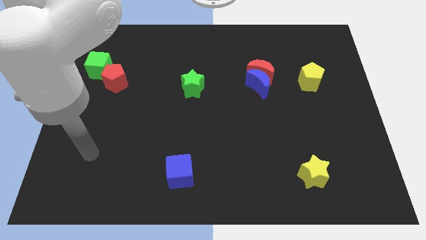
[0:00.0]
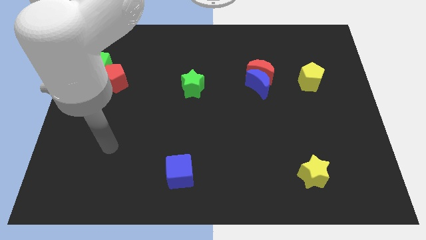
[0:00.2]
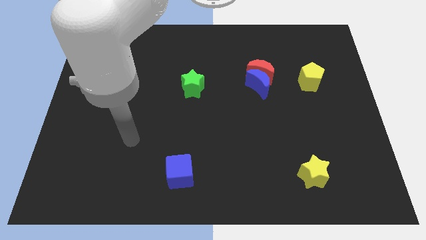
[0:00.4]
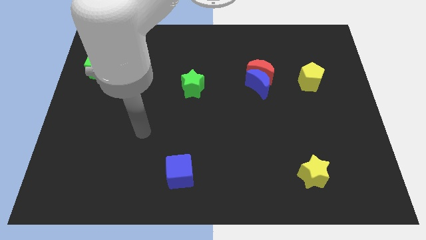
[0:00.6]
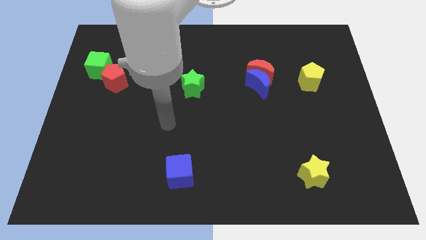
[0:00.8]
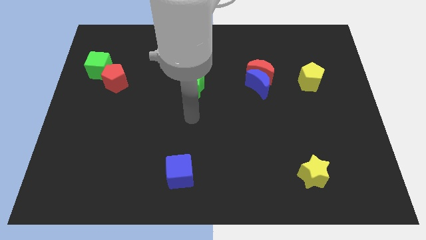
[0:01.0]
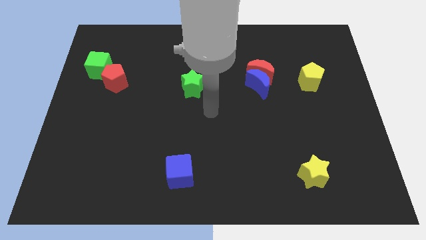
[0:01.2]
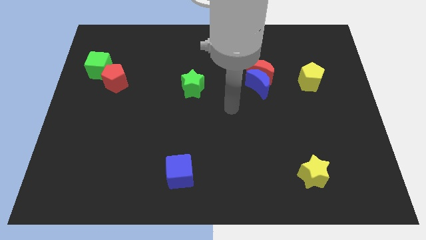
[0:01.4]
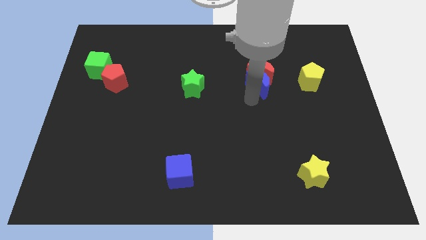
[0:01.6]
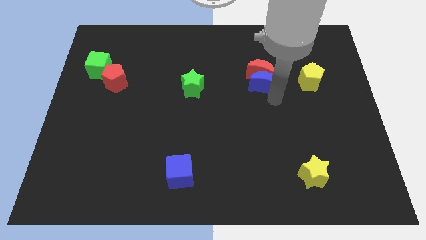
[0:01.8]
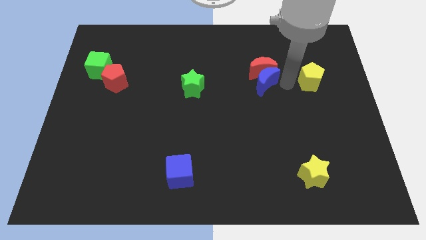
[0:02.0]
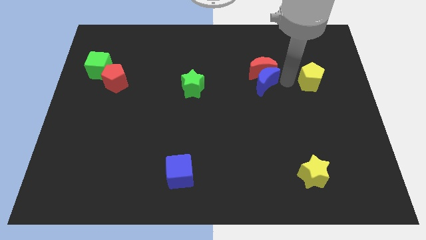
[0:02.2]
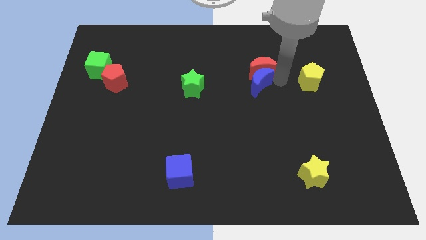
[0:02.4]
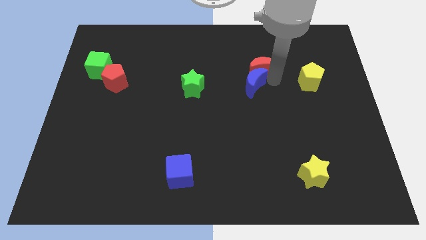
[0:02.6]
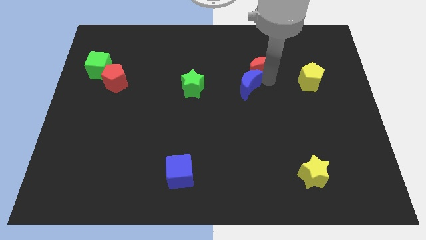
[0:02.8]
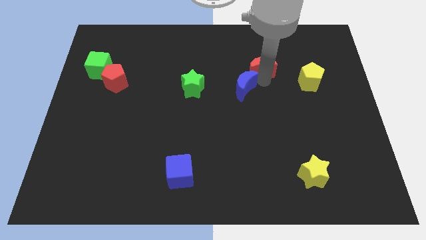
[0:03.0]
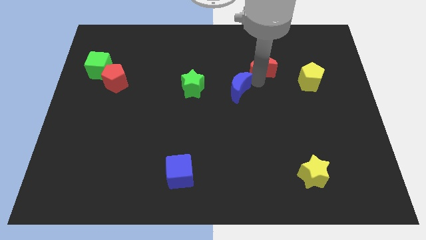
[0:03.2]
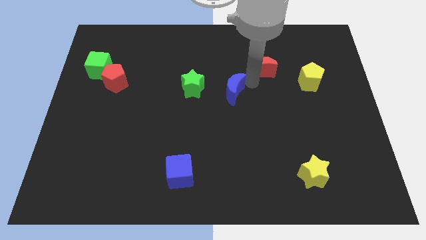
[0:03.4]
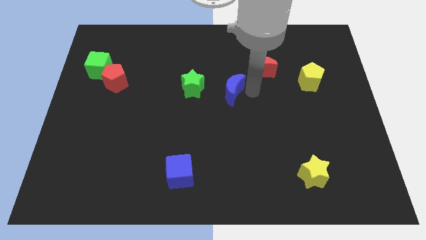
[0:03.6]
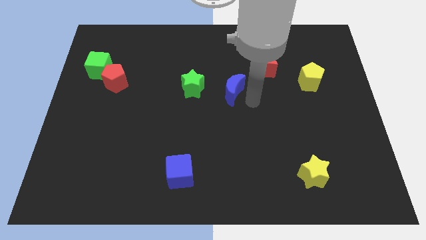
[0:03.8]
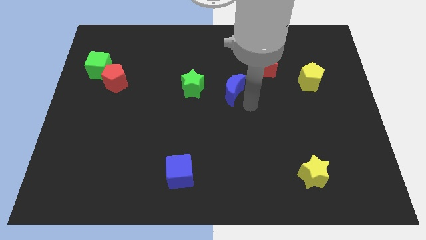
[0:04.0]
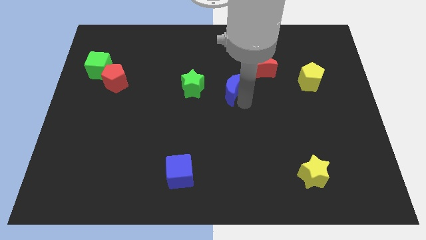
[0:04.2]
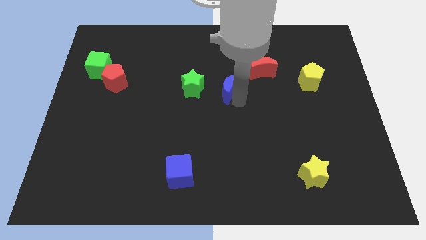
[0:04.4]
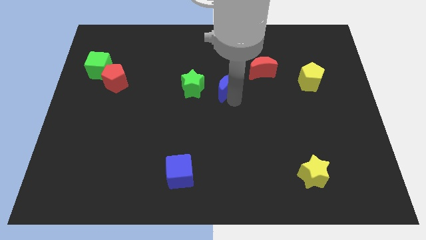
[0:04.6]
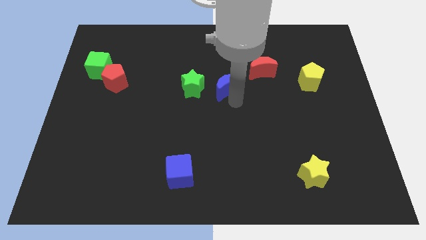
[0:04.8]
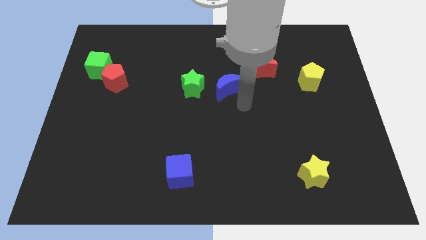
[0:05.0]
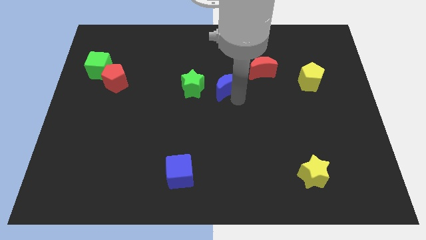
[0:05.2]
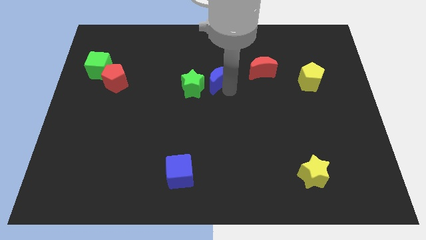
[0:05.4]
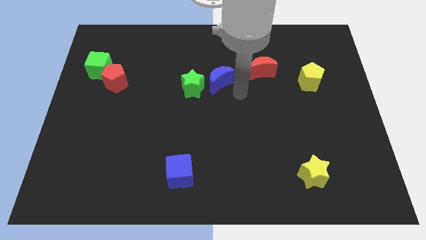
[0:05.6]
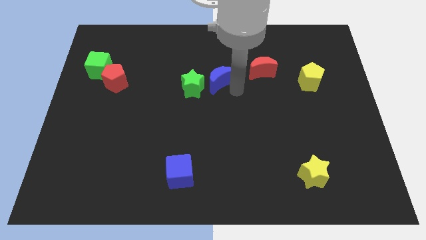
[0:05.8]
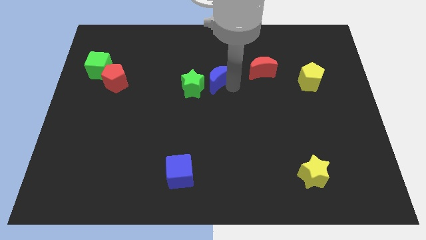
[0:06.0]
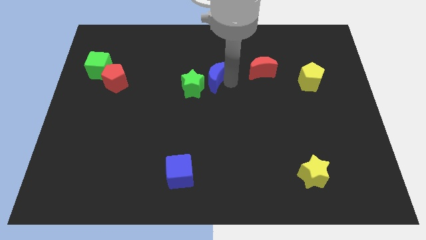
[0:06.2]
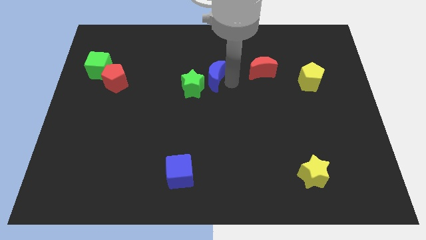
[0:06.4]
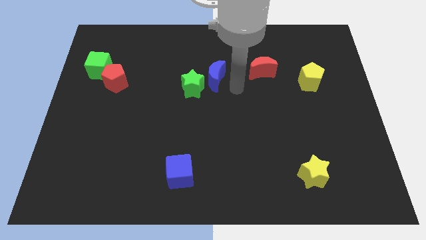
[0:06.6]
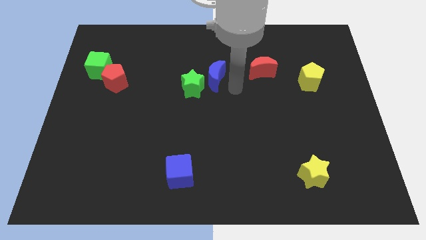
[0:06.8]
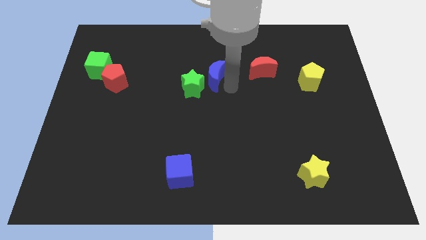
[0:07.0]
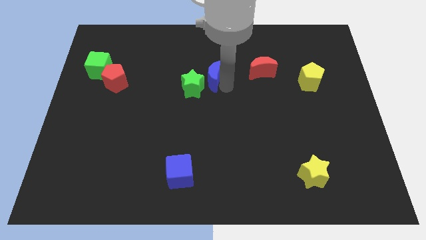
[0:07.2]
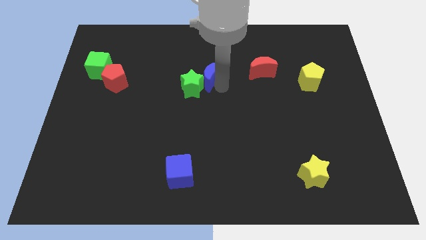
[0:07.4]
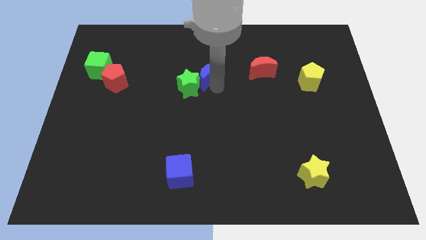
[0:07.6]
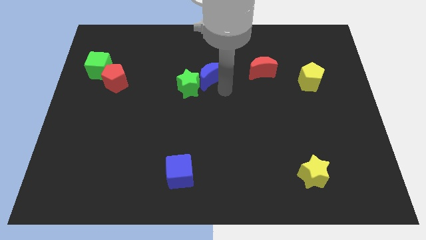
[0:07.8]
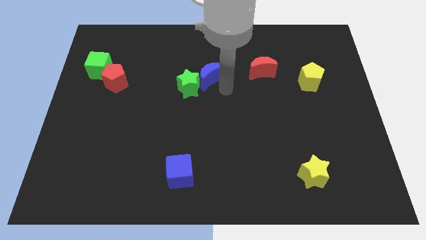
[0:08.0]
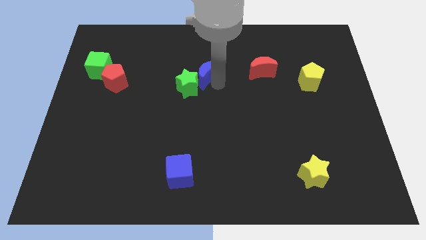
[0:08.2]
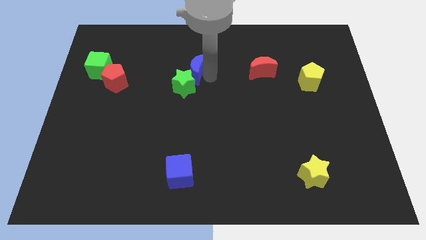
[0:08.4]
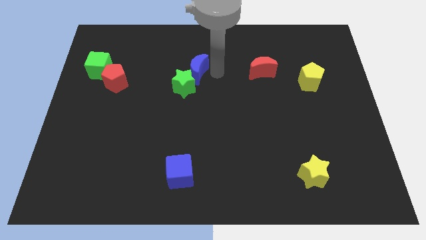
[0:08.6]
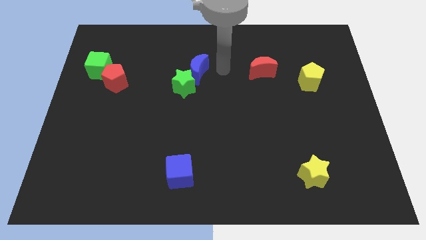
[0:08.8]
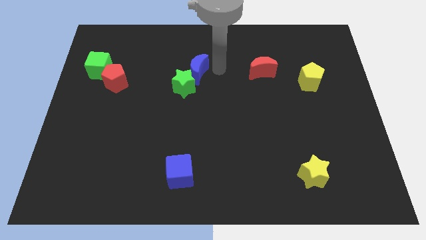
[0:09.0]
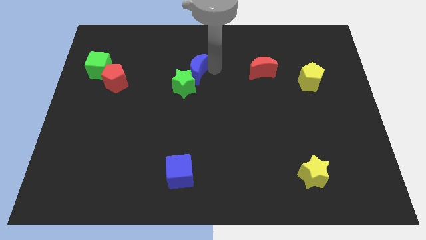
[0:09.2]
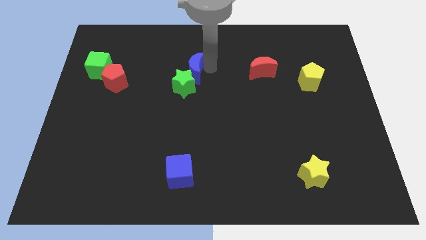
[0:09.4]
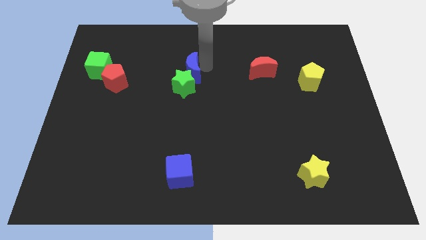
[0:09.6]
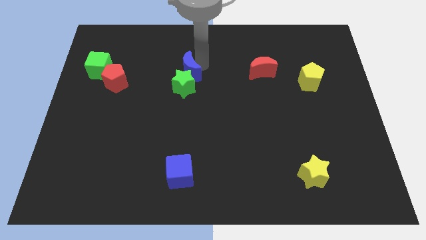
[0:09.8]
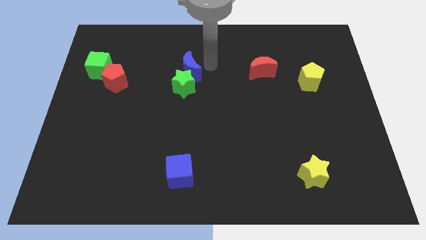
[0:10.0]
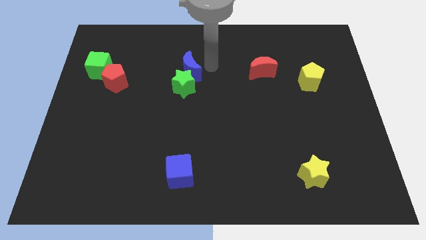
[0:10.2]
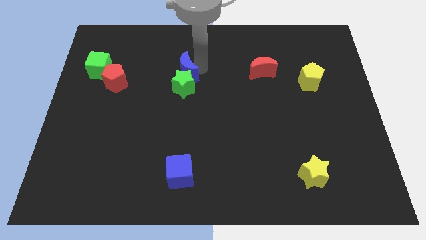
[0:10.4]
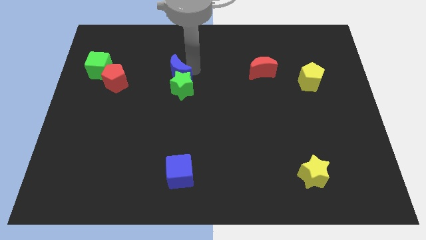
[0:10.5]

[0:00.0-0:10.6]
put the blue moon to the right of the red pentagon
